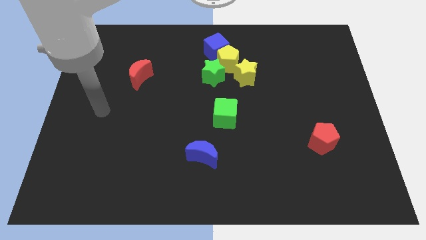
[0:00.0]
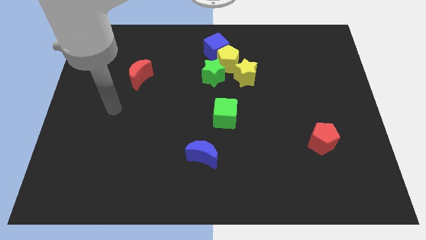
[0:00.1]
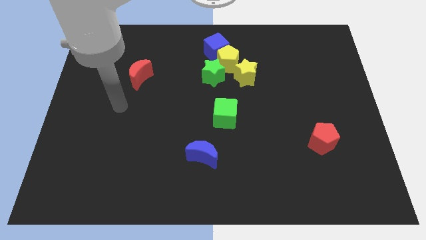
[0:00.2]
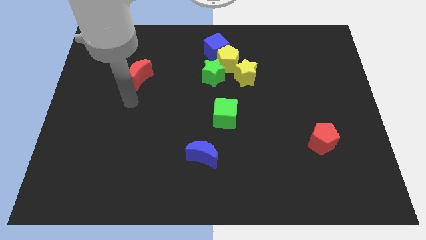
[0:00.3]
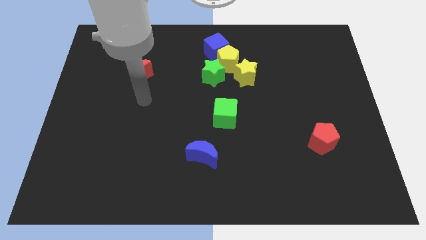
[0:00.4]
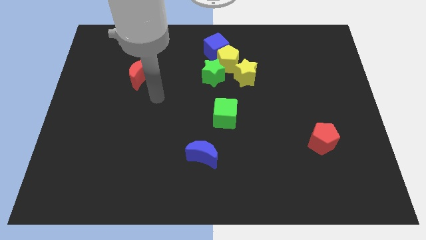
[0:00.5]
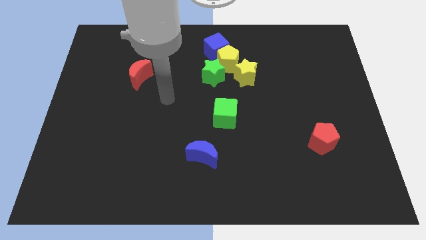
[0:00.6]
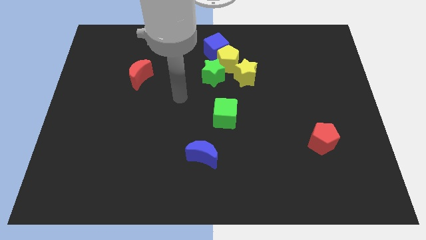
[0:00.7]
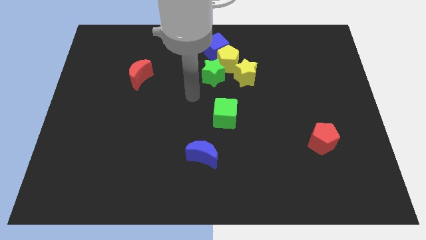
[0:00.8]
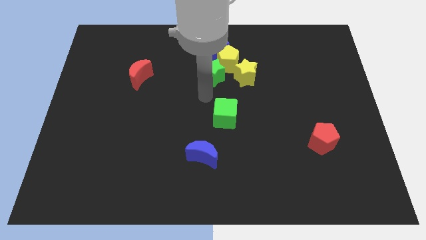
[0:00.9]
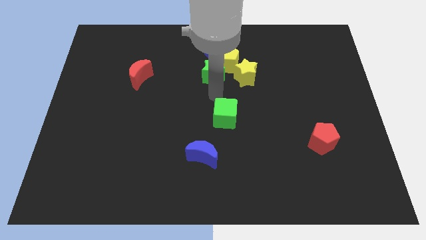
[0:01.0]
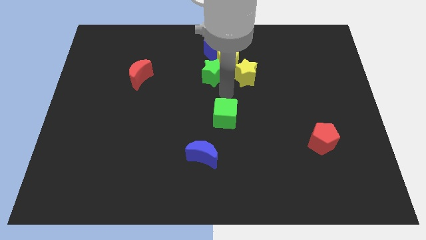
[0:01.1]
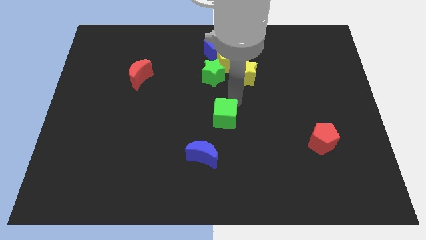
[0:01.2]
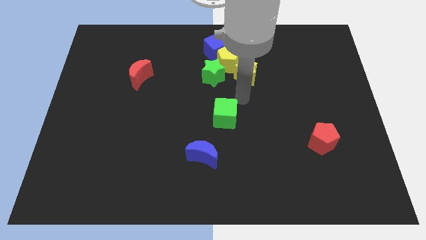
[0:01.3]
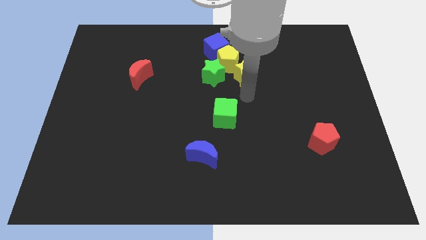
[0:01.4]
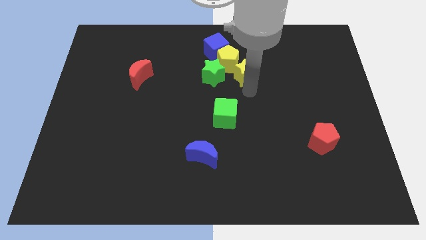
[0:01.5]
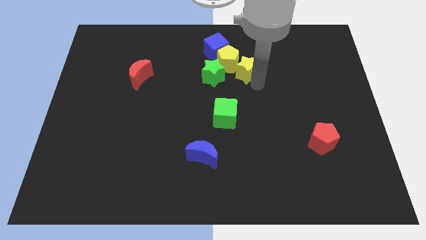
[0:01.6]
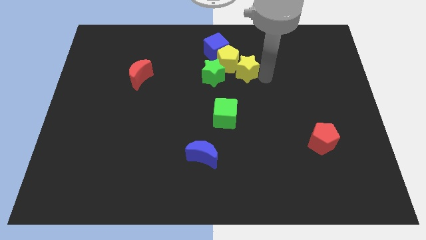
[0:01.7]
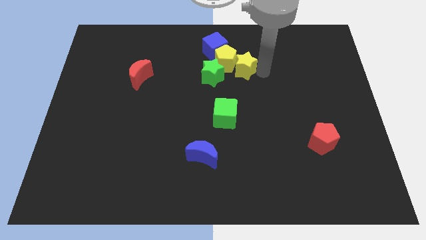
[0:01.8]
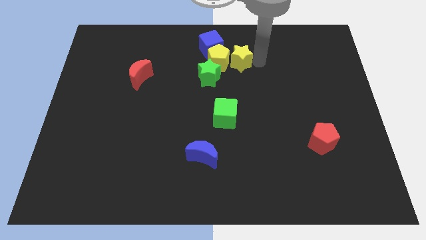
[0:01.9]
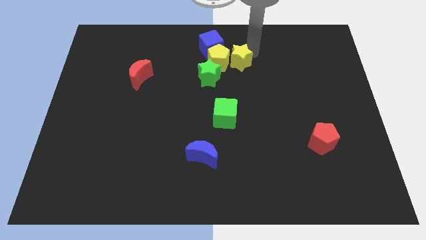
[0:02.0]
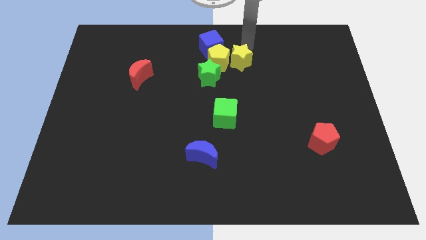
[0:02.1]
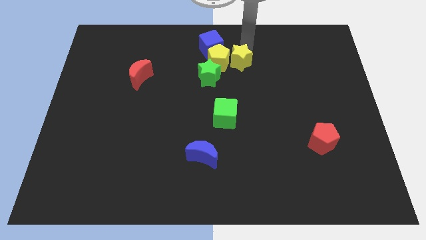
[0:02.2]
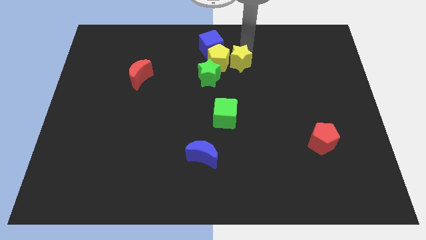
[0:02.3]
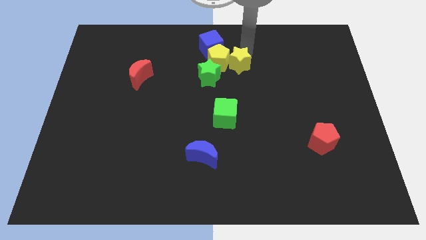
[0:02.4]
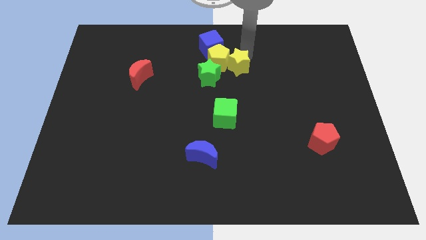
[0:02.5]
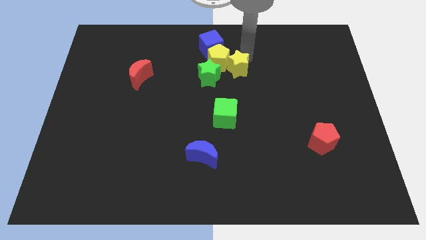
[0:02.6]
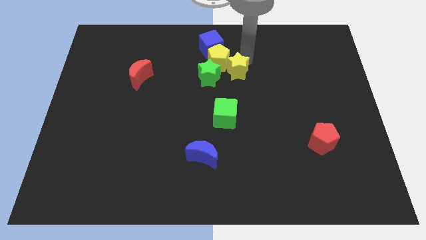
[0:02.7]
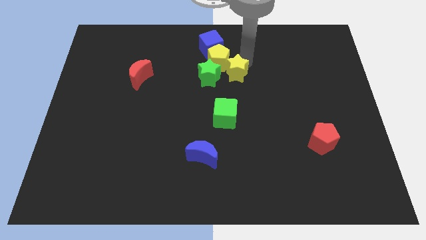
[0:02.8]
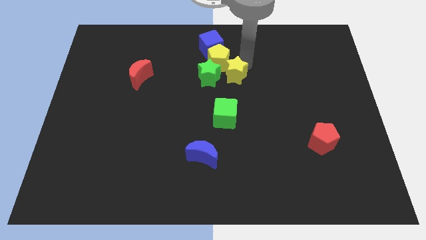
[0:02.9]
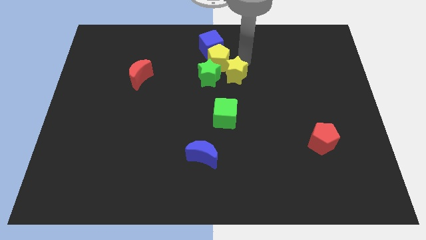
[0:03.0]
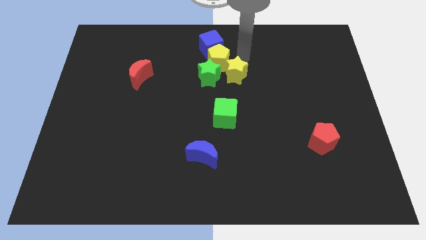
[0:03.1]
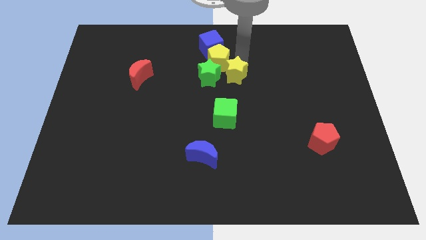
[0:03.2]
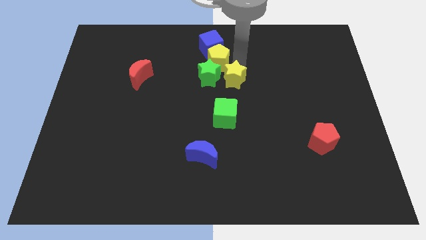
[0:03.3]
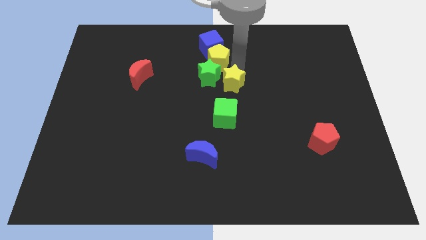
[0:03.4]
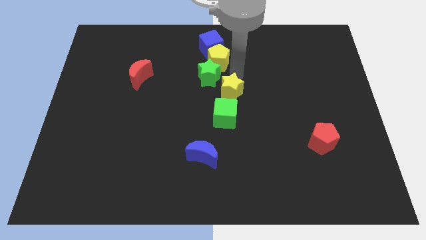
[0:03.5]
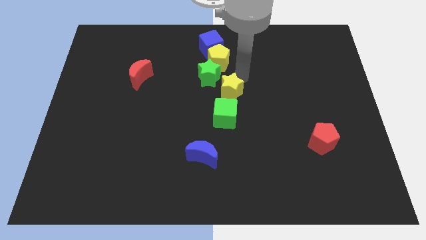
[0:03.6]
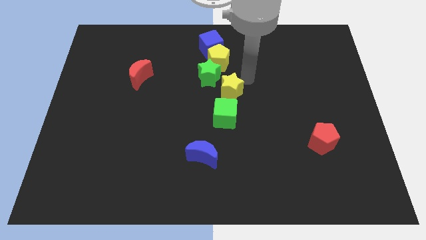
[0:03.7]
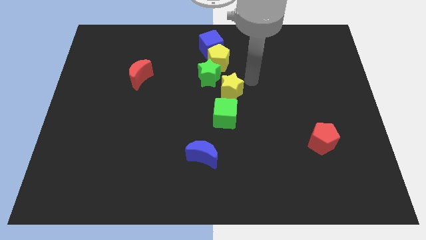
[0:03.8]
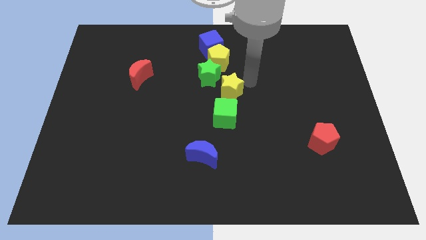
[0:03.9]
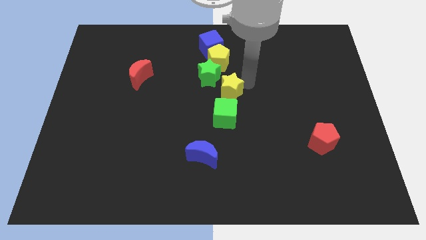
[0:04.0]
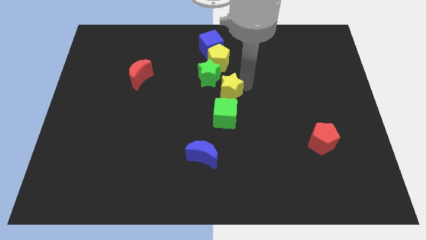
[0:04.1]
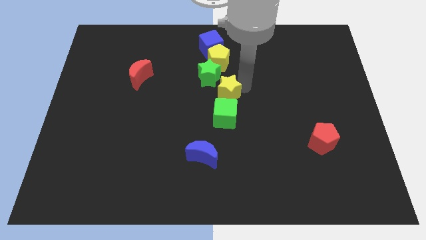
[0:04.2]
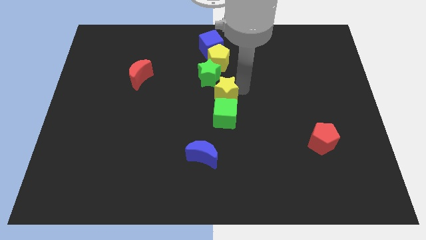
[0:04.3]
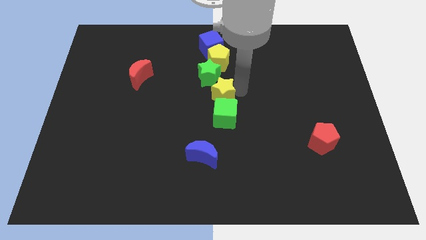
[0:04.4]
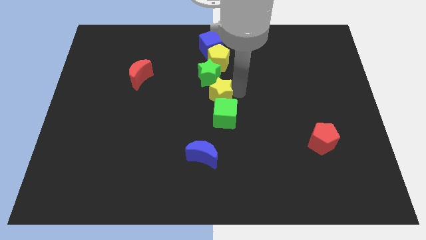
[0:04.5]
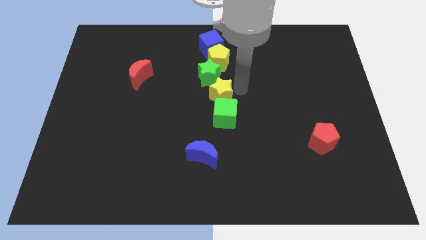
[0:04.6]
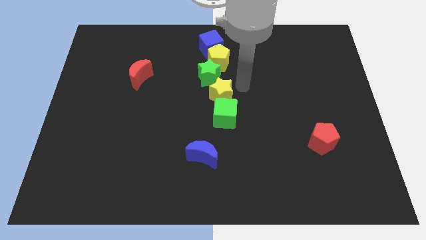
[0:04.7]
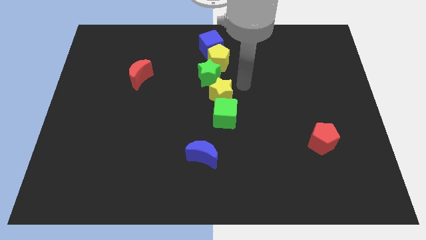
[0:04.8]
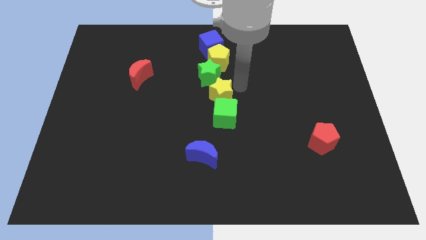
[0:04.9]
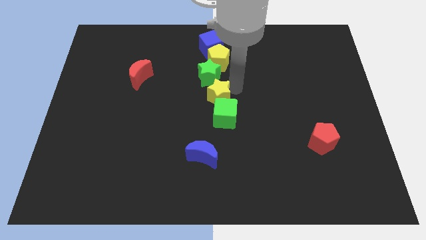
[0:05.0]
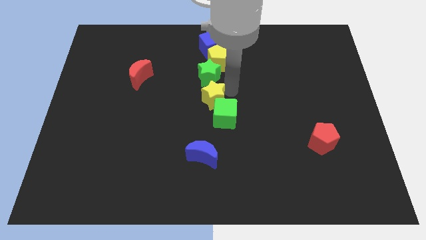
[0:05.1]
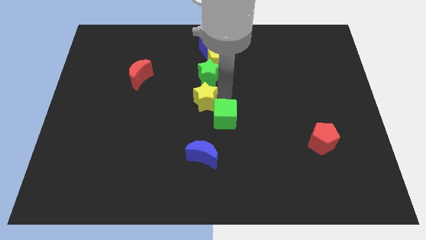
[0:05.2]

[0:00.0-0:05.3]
move the yellow star left a little bit

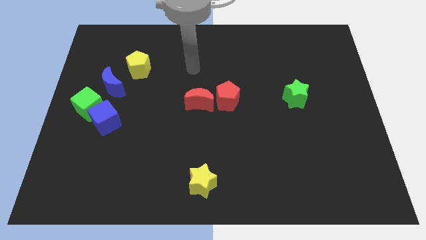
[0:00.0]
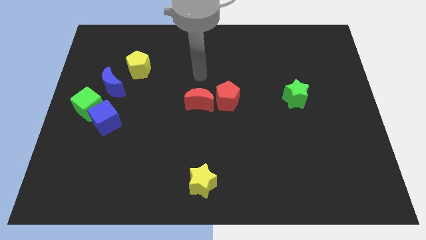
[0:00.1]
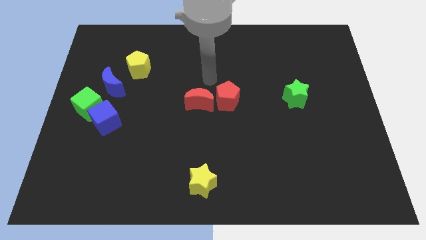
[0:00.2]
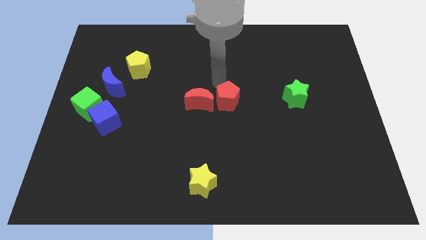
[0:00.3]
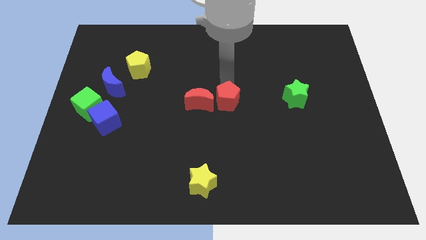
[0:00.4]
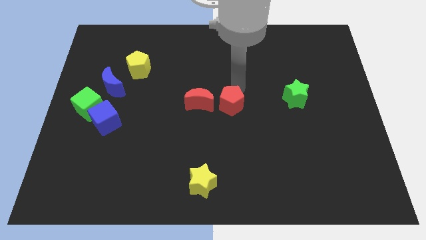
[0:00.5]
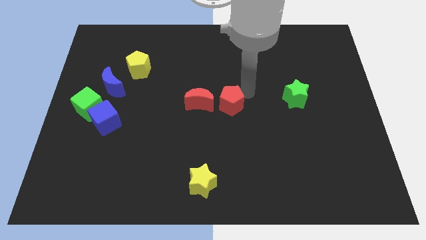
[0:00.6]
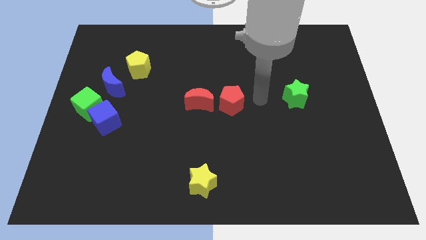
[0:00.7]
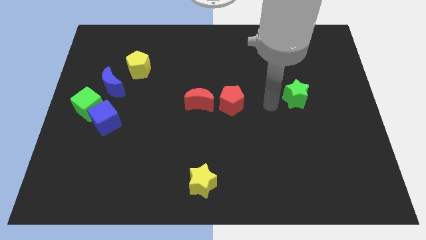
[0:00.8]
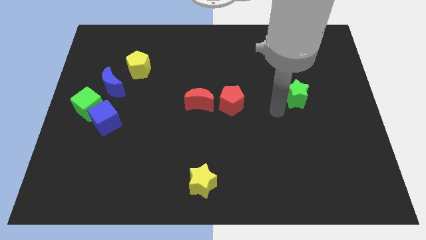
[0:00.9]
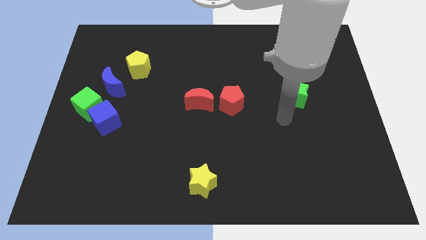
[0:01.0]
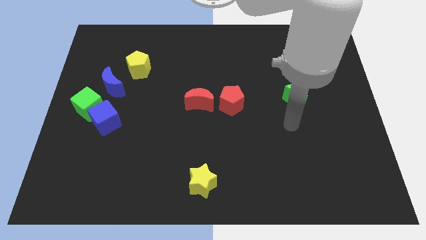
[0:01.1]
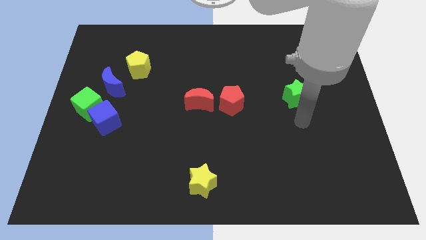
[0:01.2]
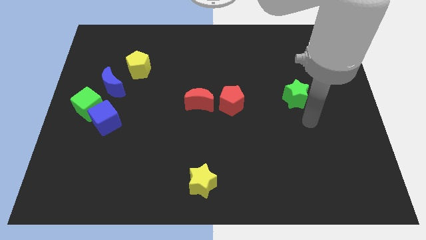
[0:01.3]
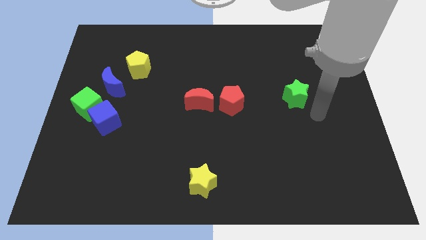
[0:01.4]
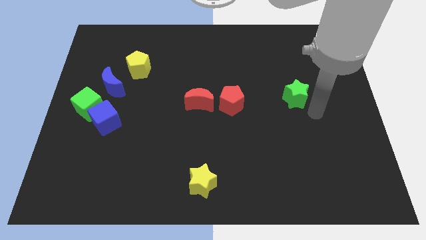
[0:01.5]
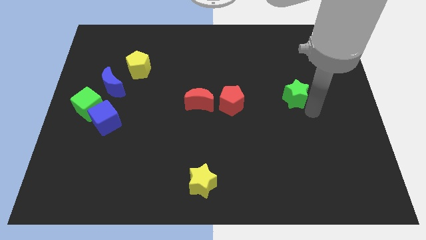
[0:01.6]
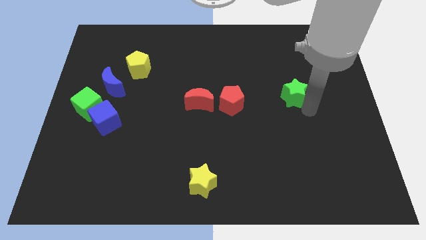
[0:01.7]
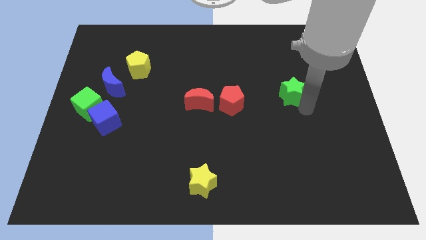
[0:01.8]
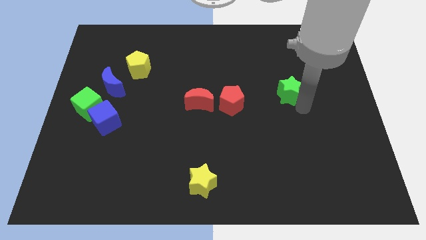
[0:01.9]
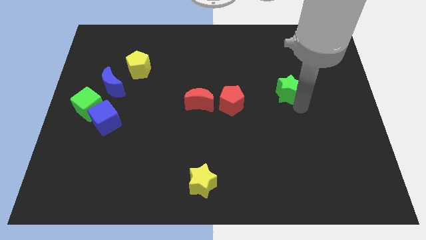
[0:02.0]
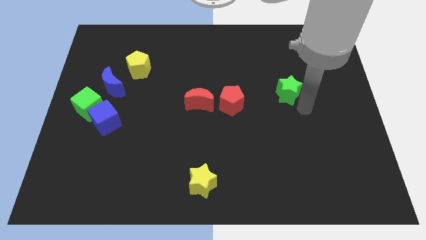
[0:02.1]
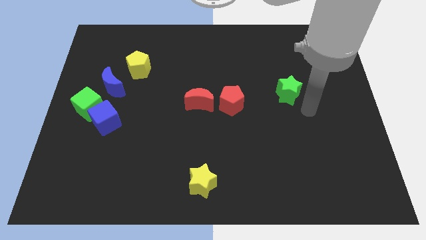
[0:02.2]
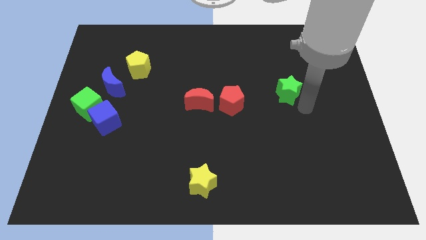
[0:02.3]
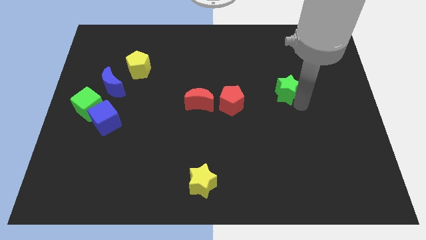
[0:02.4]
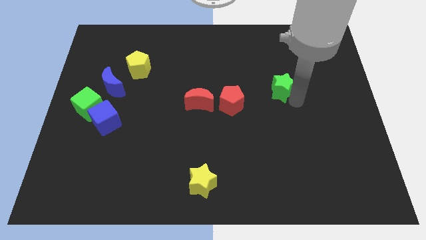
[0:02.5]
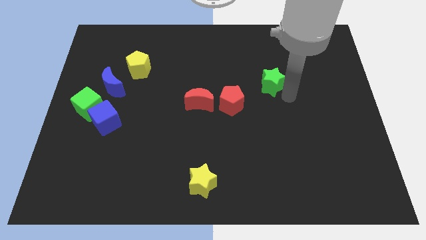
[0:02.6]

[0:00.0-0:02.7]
slightly slide the green star up and left diagonally

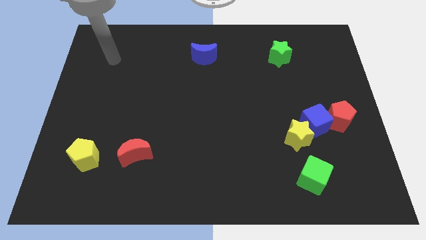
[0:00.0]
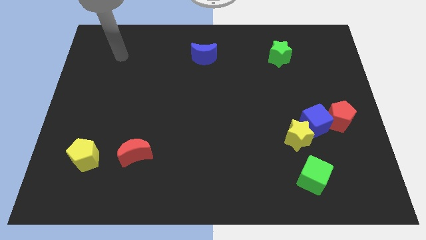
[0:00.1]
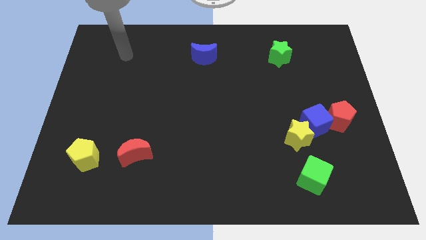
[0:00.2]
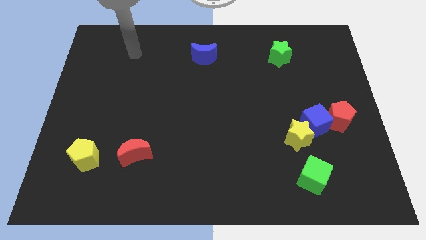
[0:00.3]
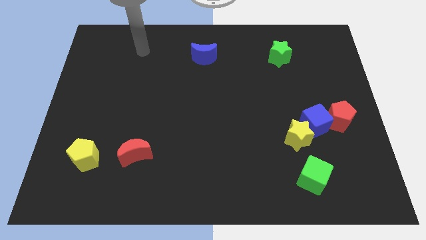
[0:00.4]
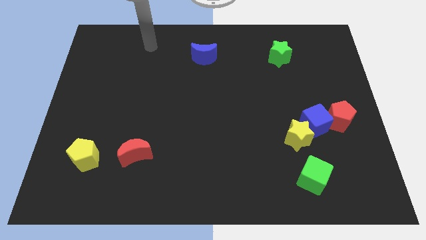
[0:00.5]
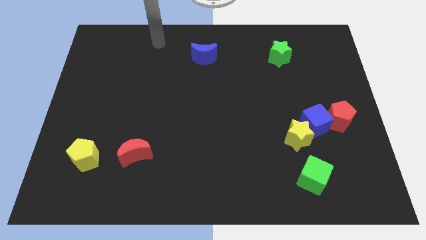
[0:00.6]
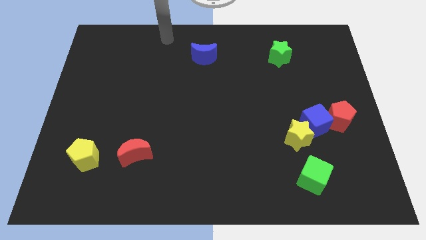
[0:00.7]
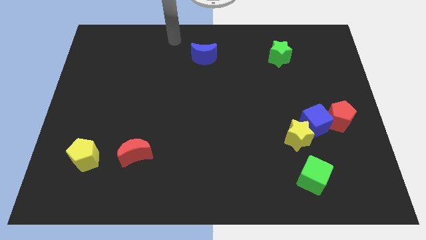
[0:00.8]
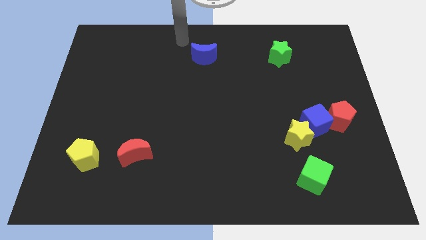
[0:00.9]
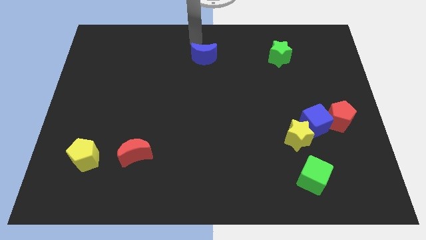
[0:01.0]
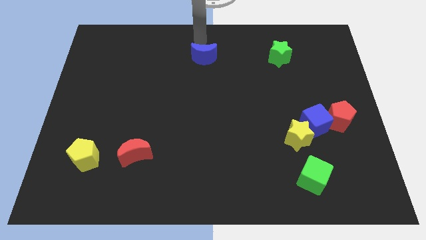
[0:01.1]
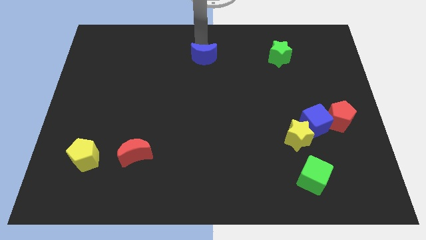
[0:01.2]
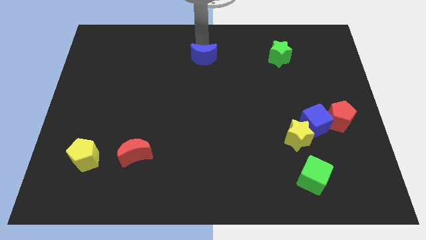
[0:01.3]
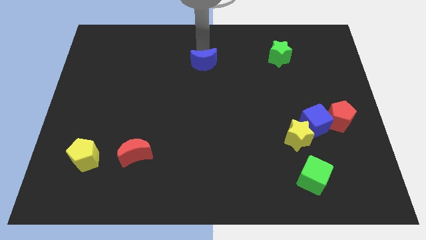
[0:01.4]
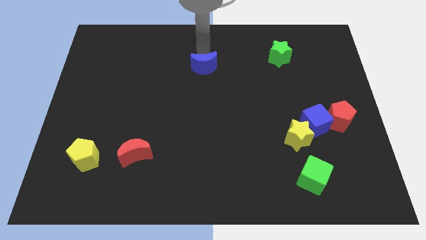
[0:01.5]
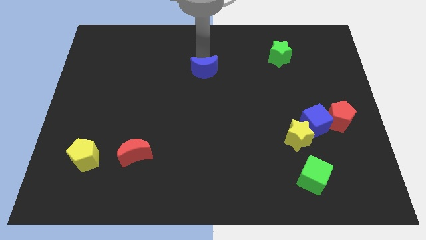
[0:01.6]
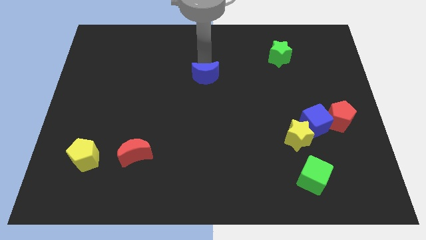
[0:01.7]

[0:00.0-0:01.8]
slightly slide the blue moon down
